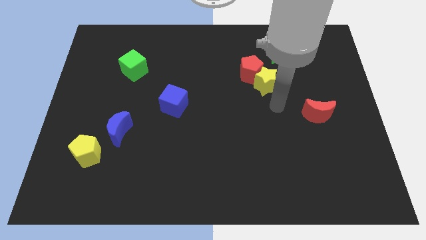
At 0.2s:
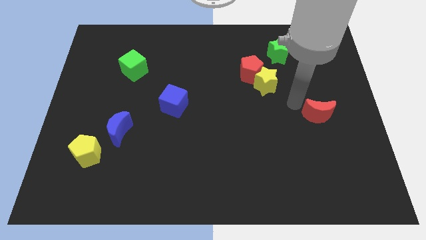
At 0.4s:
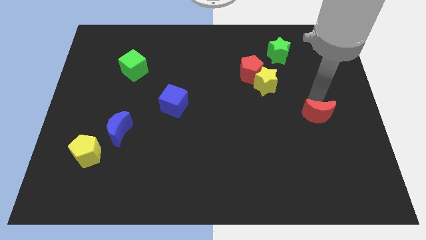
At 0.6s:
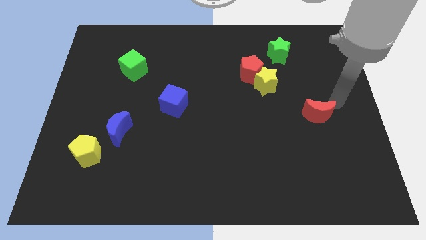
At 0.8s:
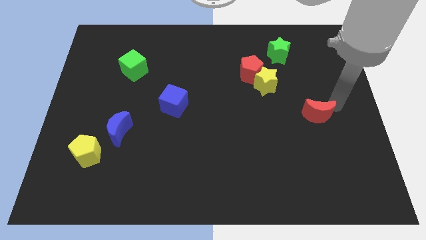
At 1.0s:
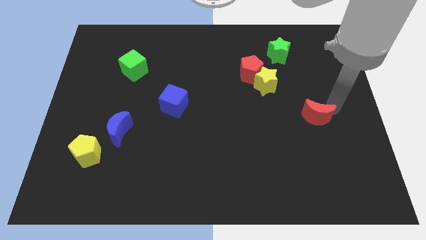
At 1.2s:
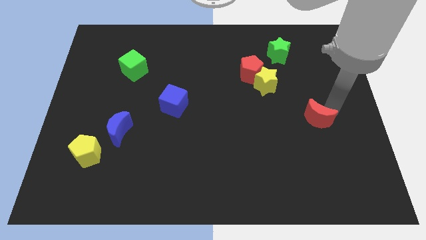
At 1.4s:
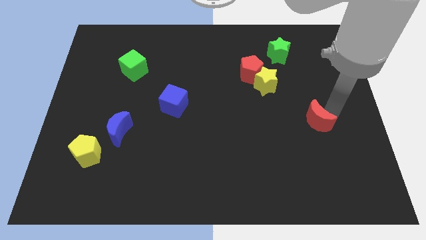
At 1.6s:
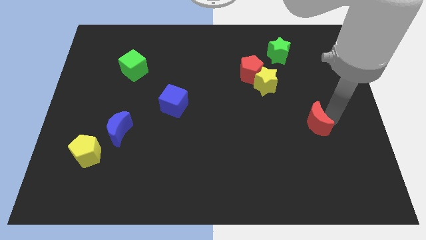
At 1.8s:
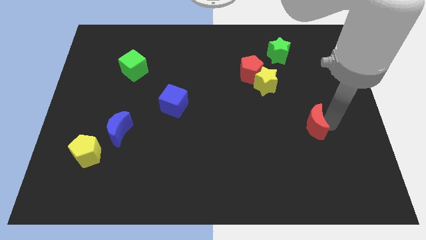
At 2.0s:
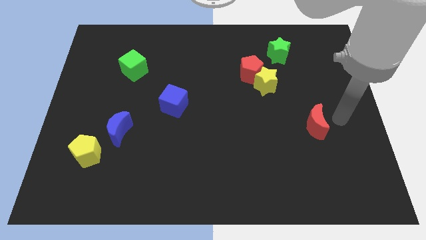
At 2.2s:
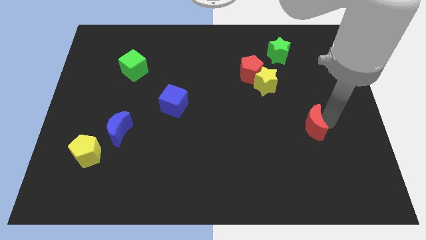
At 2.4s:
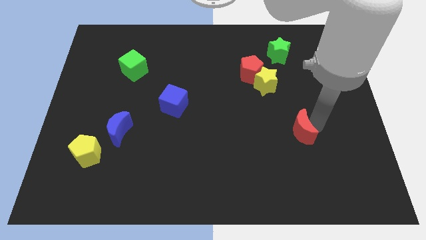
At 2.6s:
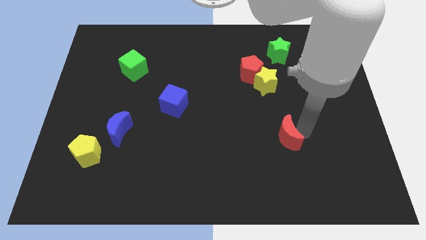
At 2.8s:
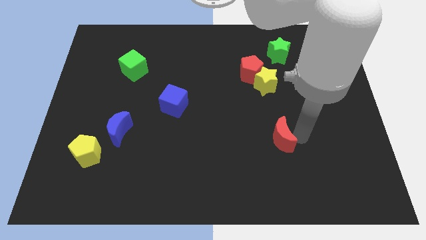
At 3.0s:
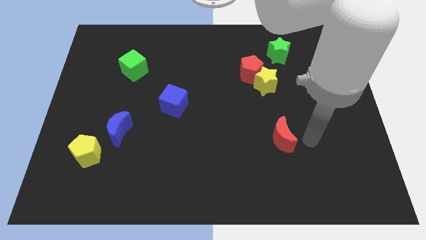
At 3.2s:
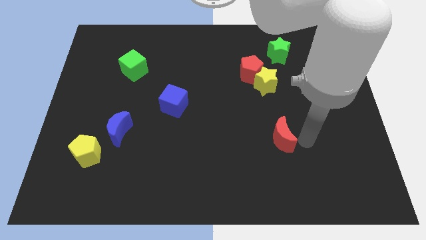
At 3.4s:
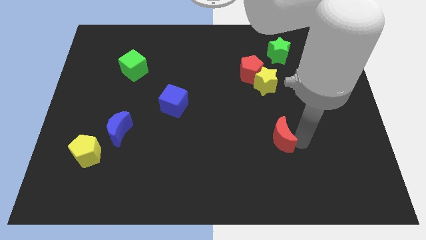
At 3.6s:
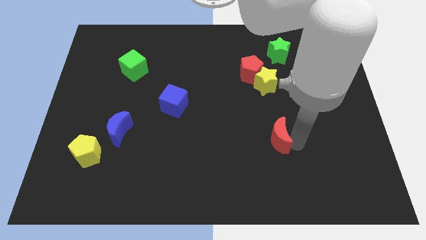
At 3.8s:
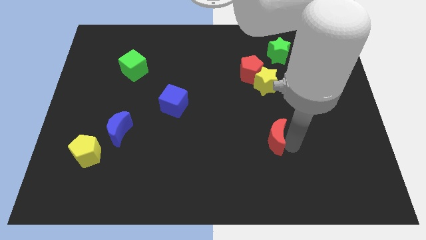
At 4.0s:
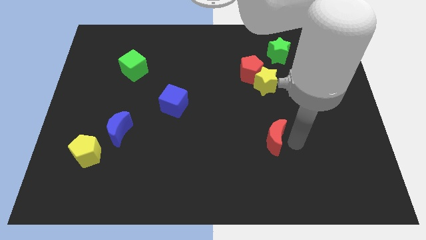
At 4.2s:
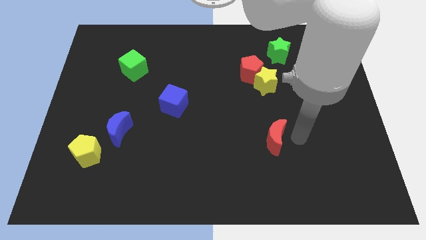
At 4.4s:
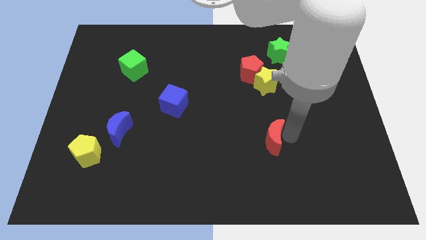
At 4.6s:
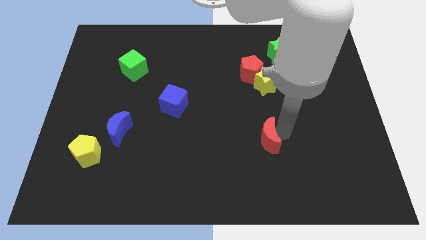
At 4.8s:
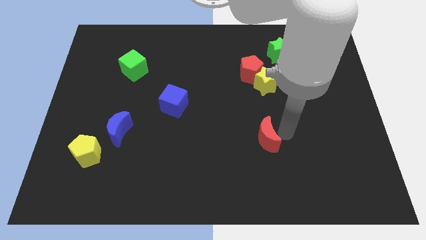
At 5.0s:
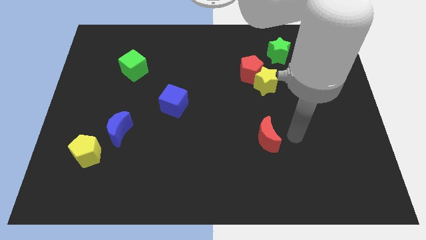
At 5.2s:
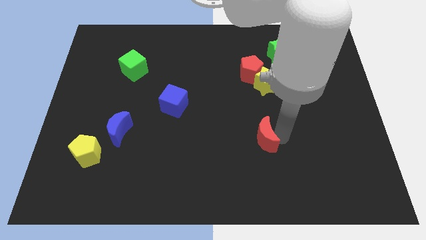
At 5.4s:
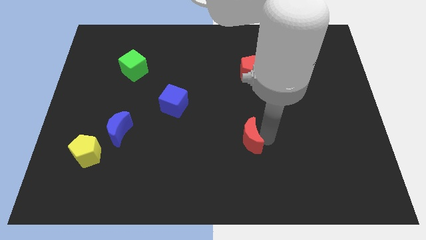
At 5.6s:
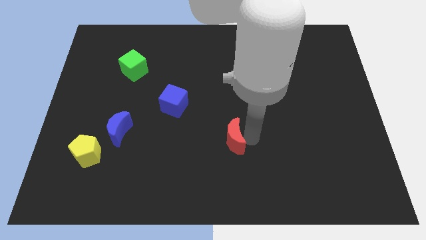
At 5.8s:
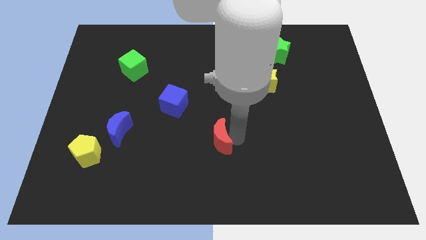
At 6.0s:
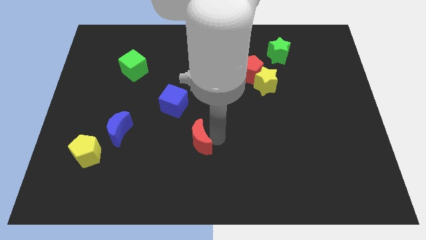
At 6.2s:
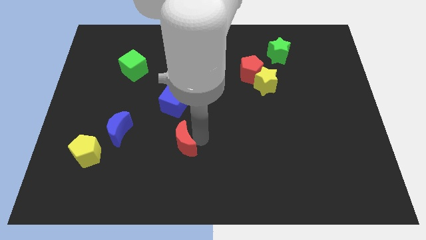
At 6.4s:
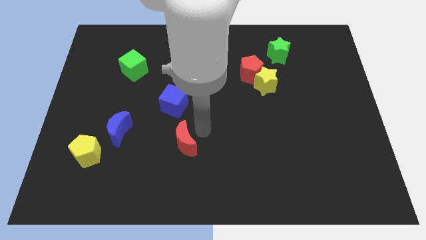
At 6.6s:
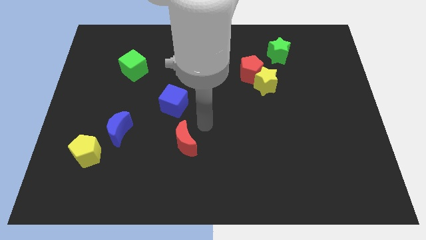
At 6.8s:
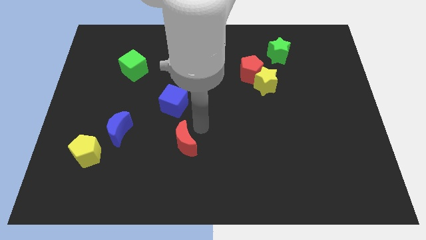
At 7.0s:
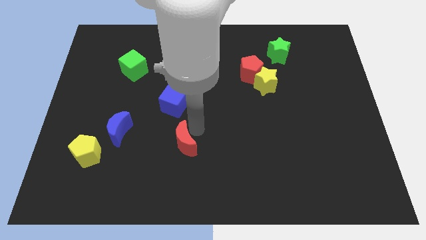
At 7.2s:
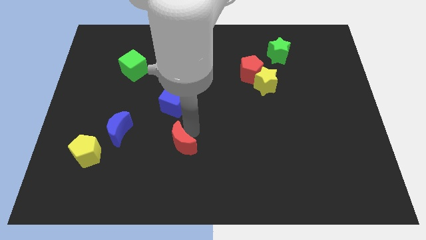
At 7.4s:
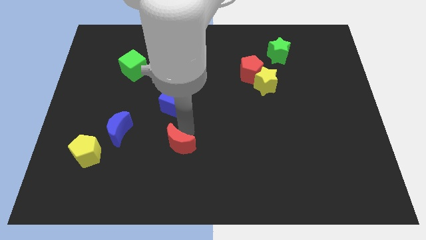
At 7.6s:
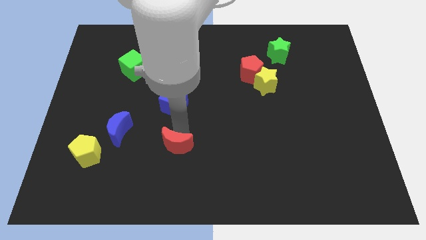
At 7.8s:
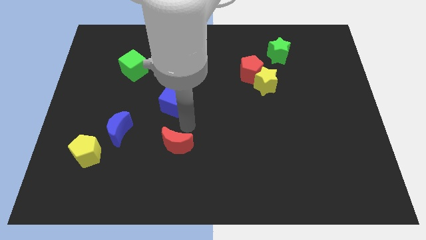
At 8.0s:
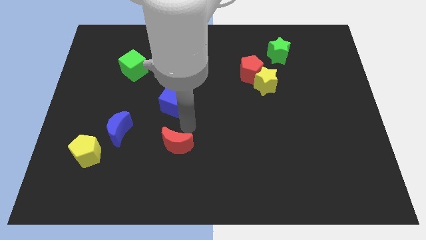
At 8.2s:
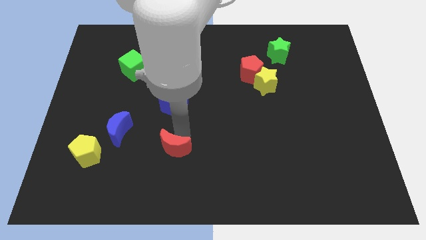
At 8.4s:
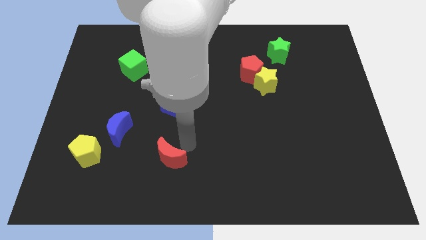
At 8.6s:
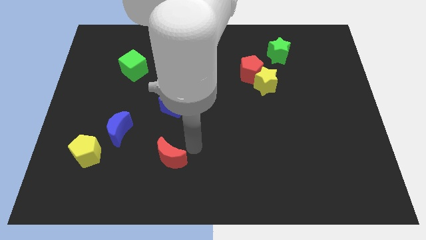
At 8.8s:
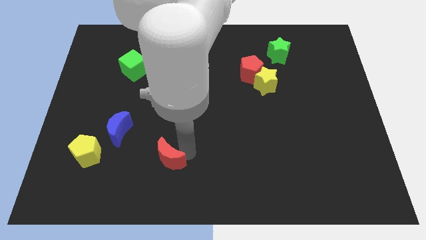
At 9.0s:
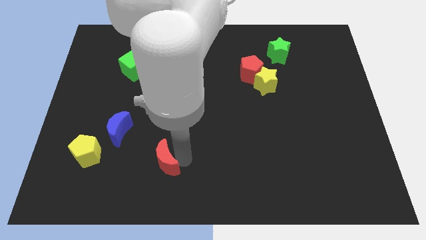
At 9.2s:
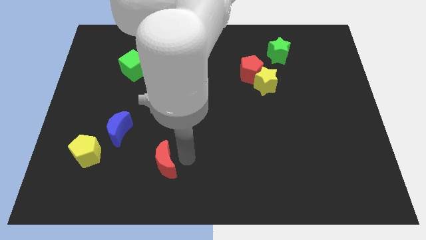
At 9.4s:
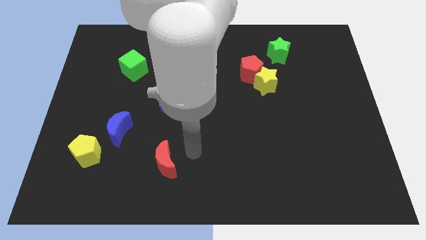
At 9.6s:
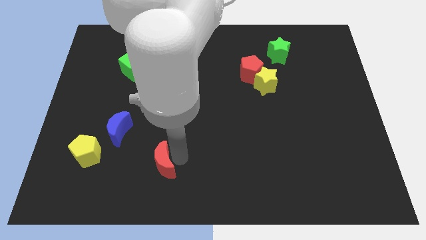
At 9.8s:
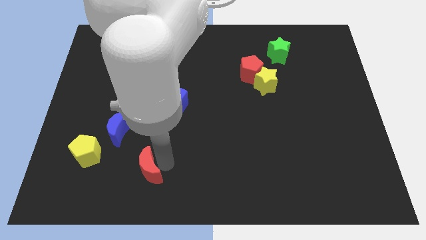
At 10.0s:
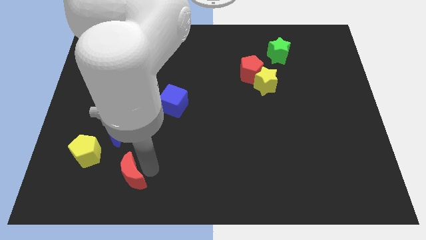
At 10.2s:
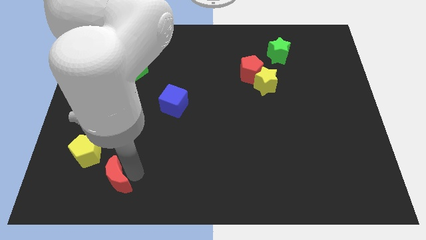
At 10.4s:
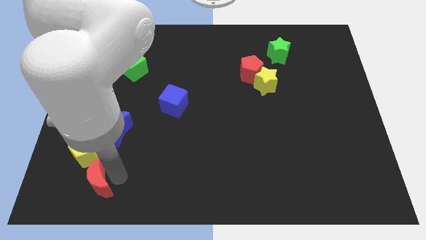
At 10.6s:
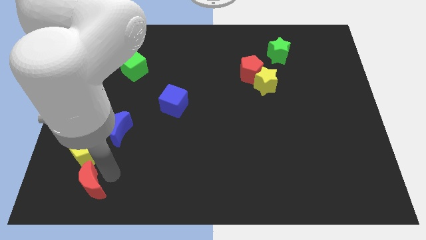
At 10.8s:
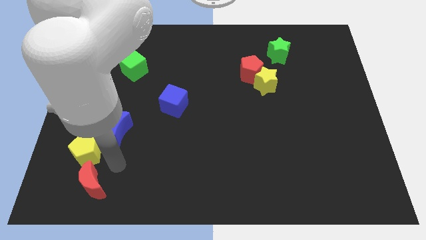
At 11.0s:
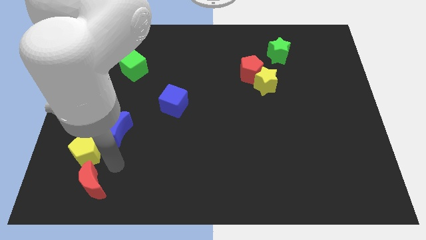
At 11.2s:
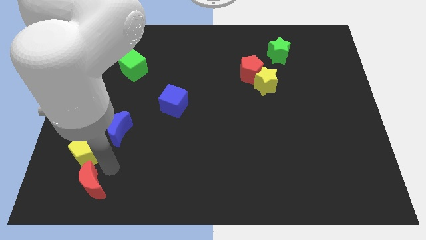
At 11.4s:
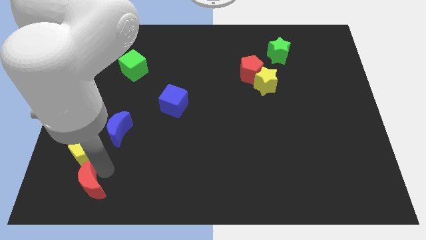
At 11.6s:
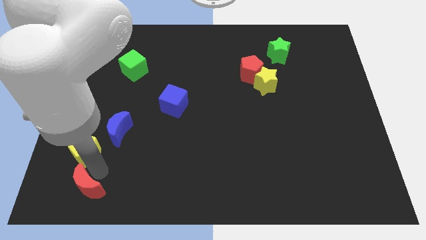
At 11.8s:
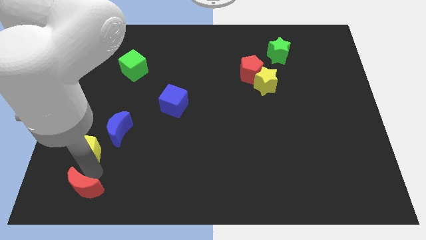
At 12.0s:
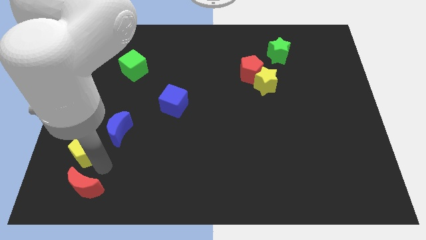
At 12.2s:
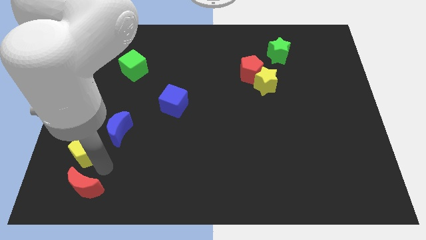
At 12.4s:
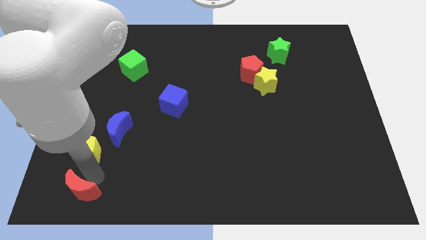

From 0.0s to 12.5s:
push the red moon to the bottom left of the board
